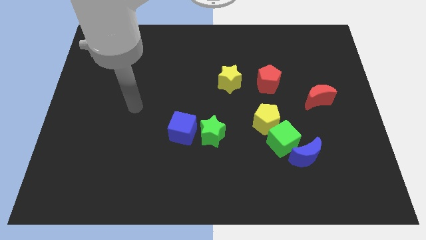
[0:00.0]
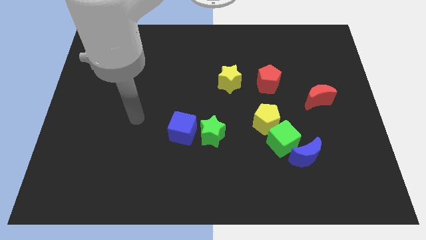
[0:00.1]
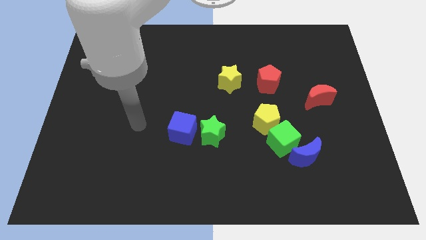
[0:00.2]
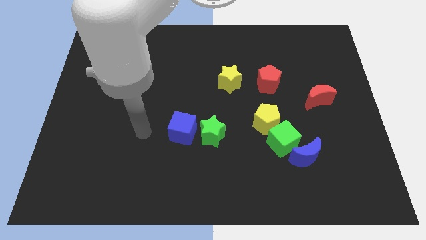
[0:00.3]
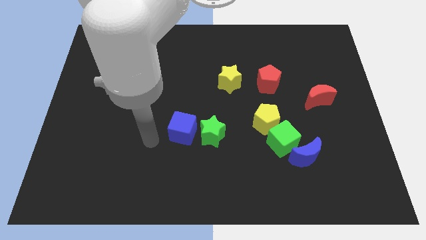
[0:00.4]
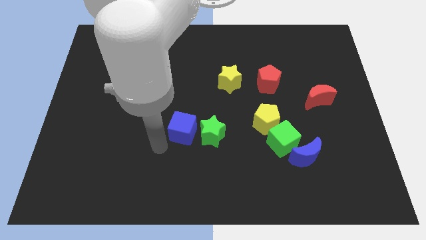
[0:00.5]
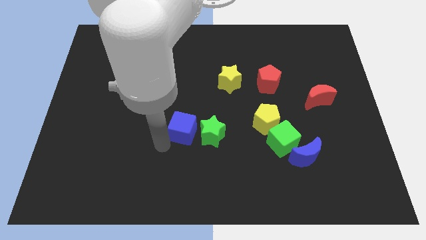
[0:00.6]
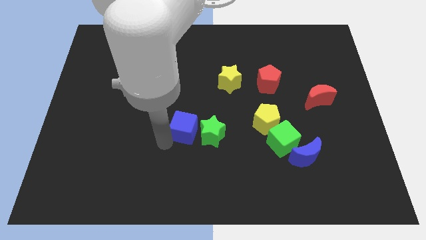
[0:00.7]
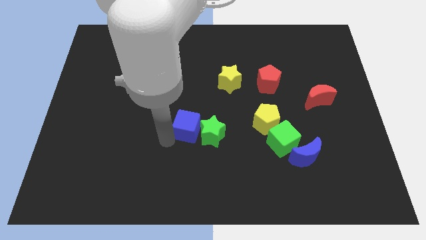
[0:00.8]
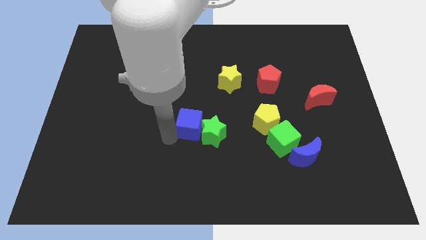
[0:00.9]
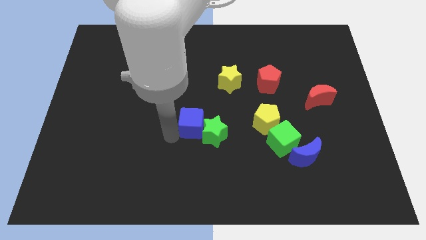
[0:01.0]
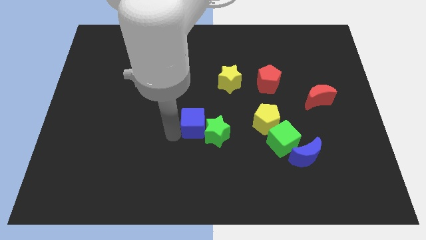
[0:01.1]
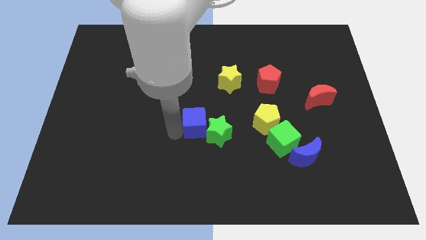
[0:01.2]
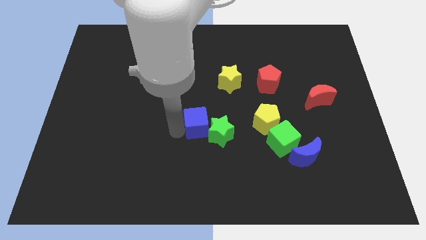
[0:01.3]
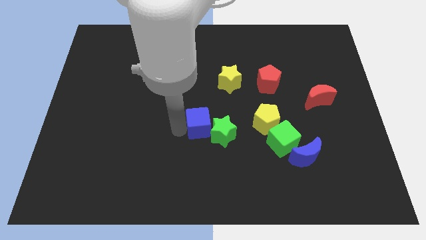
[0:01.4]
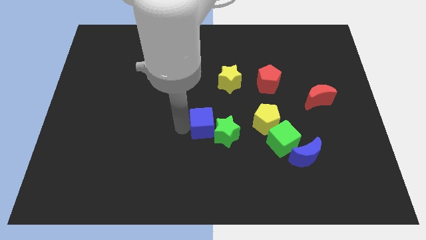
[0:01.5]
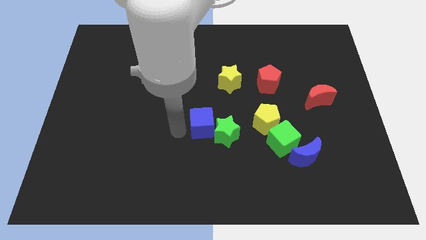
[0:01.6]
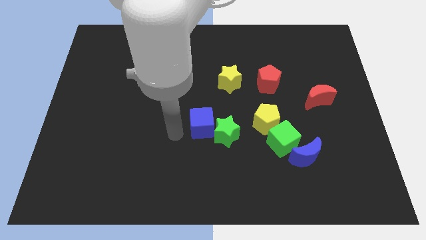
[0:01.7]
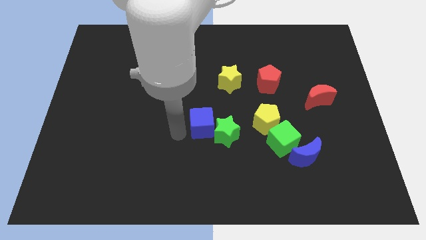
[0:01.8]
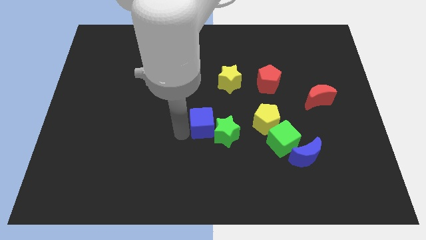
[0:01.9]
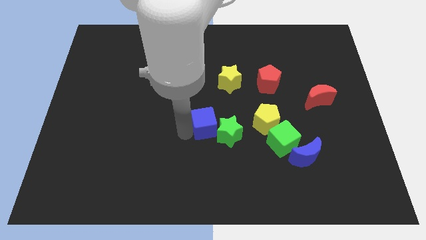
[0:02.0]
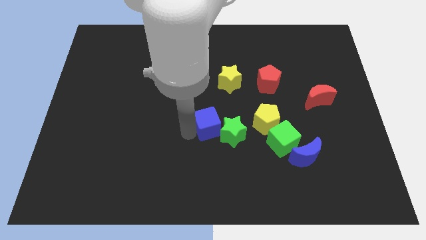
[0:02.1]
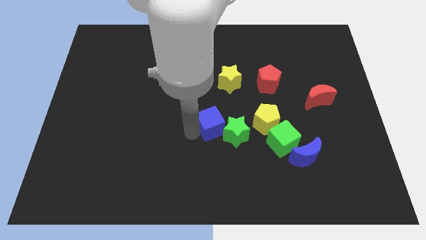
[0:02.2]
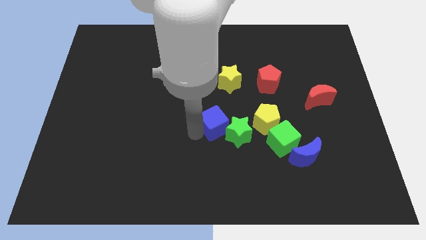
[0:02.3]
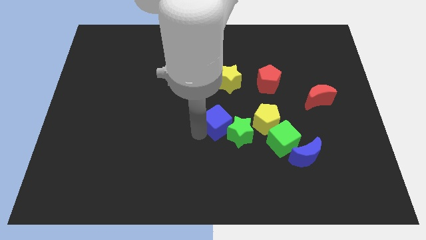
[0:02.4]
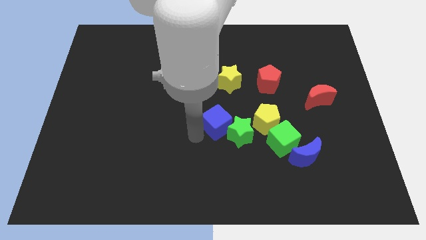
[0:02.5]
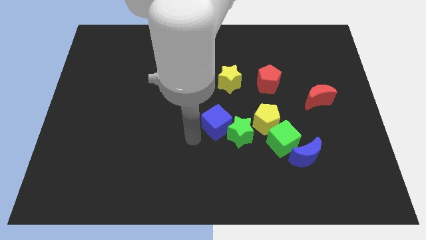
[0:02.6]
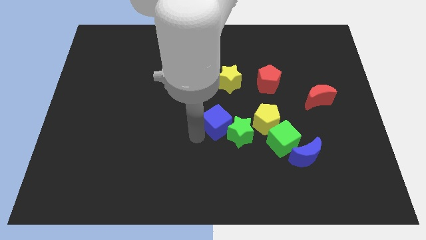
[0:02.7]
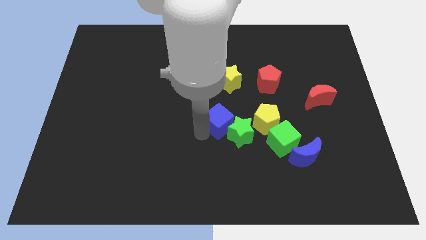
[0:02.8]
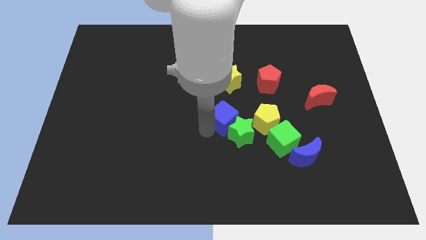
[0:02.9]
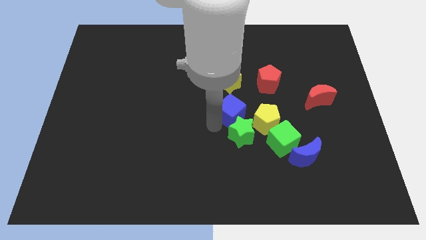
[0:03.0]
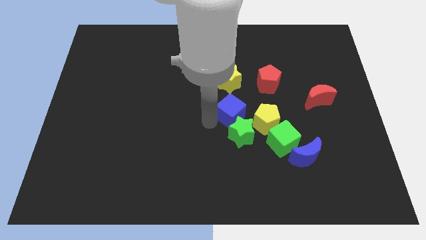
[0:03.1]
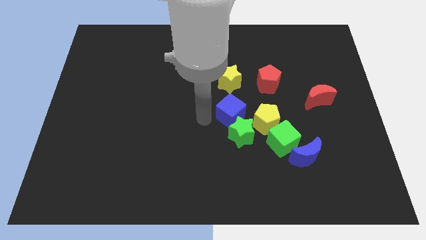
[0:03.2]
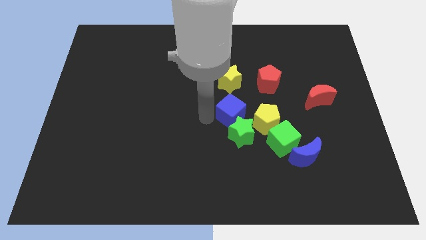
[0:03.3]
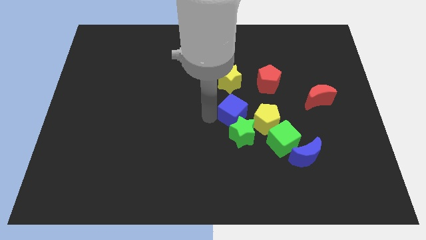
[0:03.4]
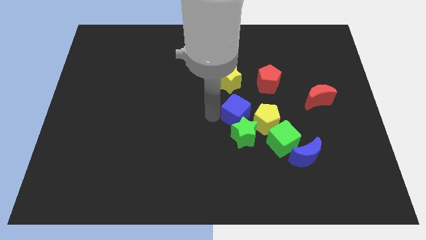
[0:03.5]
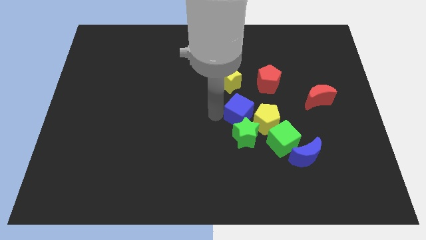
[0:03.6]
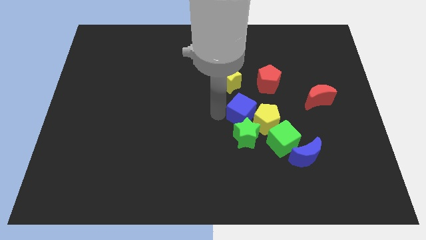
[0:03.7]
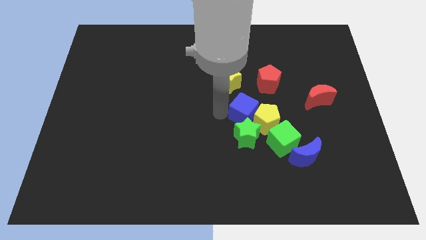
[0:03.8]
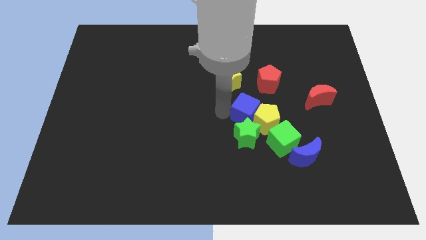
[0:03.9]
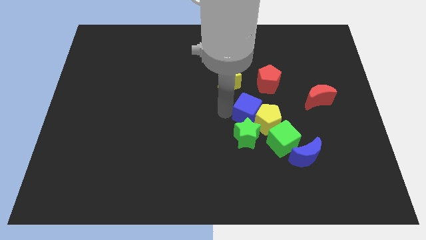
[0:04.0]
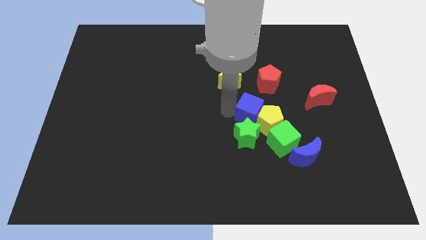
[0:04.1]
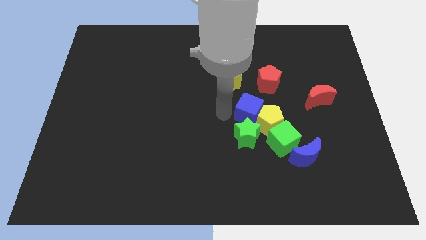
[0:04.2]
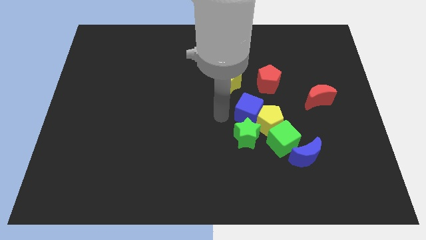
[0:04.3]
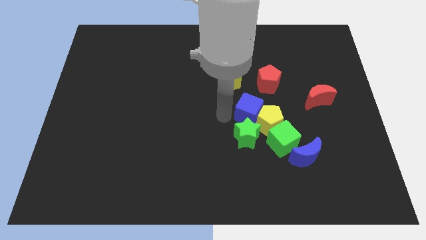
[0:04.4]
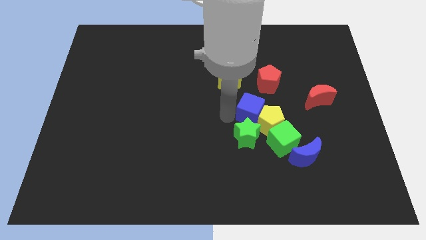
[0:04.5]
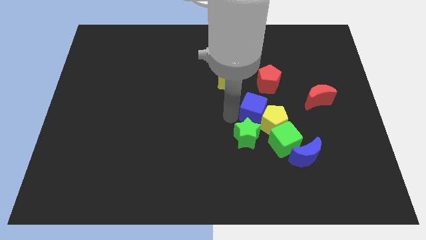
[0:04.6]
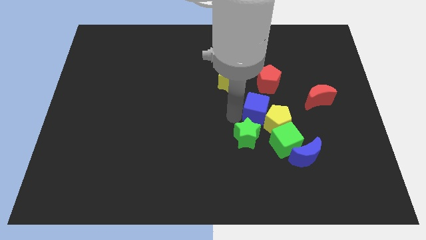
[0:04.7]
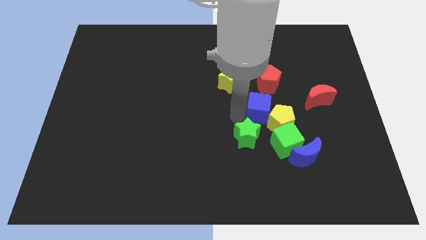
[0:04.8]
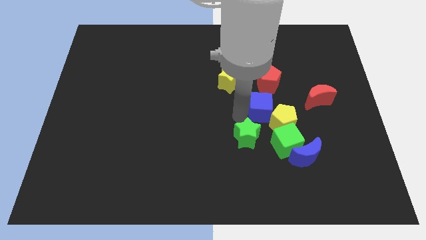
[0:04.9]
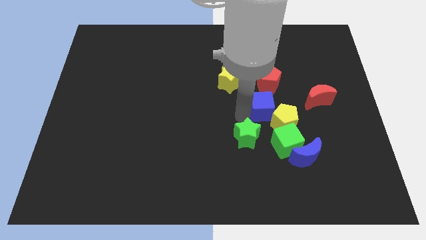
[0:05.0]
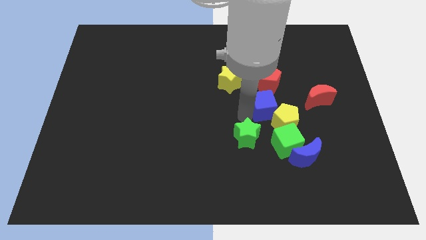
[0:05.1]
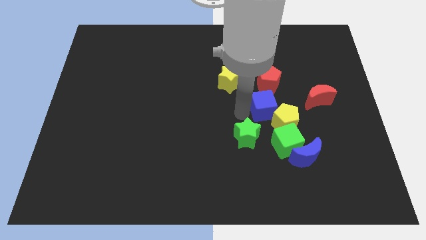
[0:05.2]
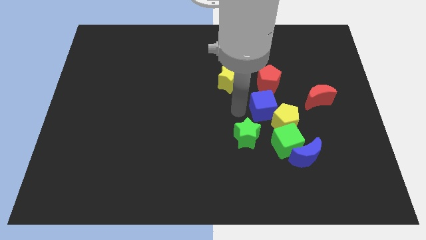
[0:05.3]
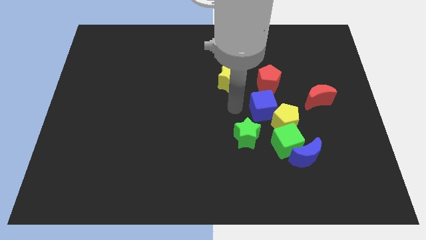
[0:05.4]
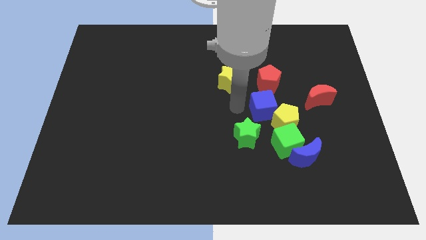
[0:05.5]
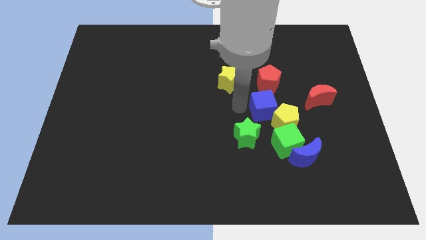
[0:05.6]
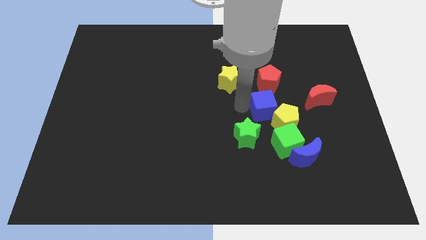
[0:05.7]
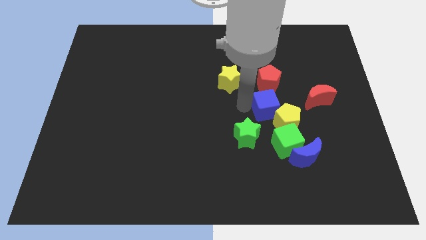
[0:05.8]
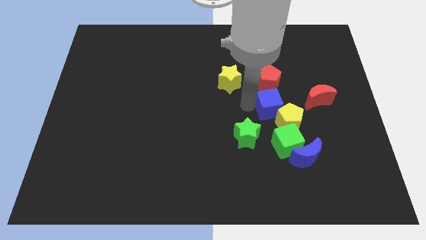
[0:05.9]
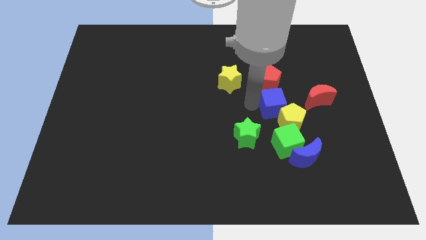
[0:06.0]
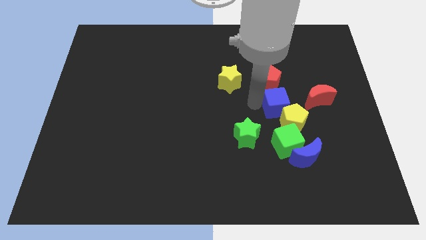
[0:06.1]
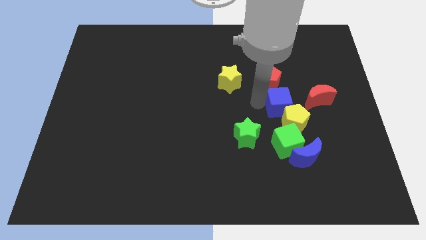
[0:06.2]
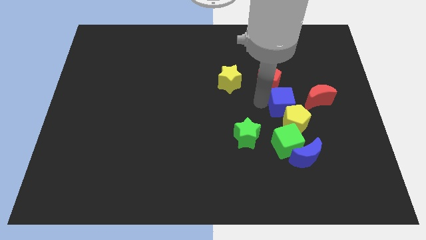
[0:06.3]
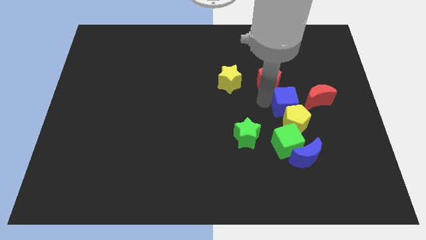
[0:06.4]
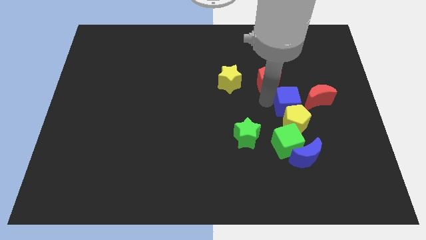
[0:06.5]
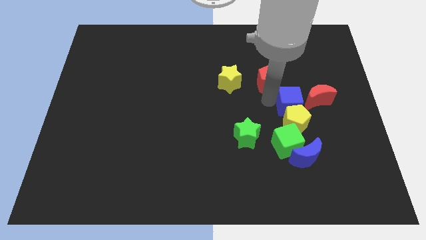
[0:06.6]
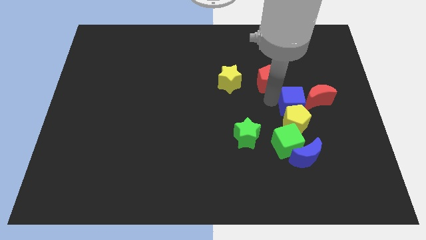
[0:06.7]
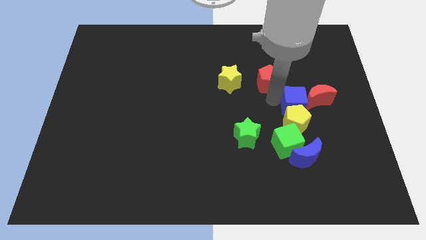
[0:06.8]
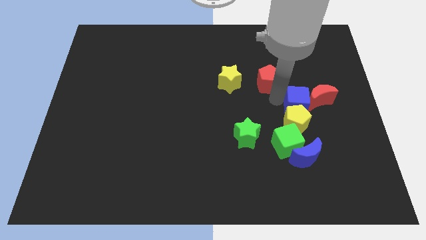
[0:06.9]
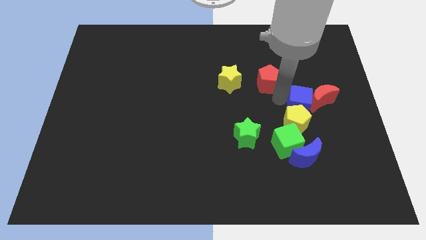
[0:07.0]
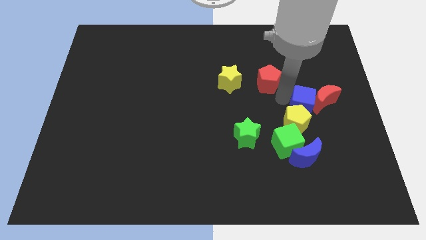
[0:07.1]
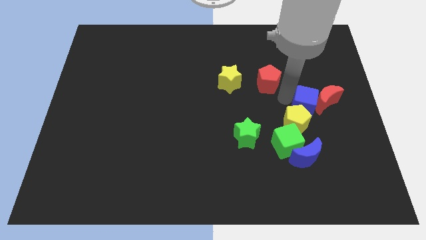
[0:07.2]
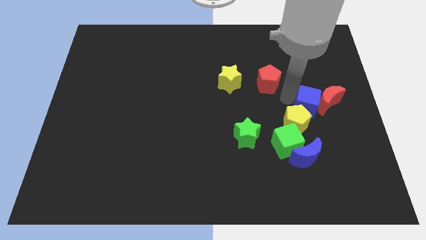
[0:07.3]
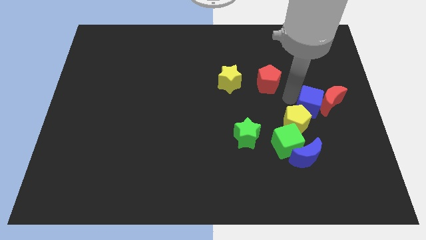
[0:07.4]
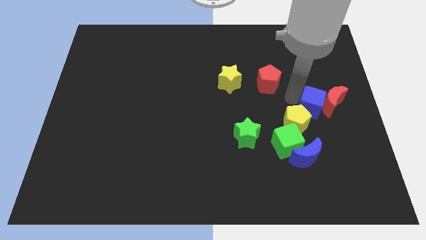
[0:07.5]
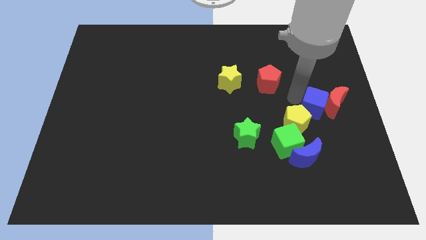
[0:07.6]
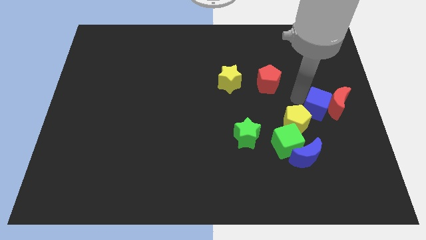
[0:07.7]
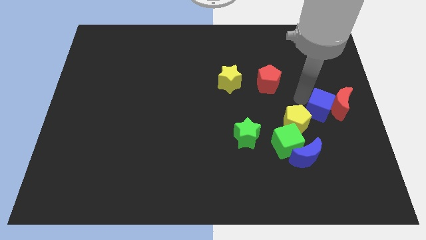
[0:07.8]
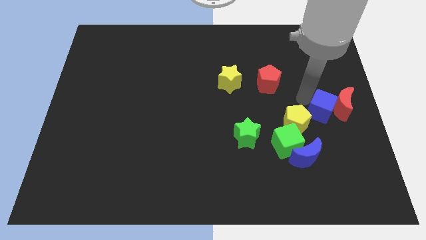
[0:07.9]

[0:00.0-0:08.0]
push the blue cube to the right side
